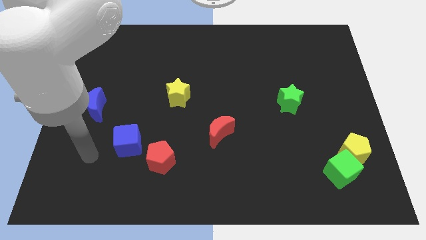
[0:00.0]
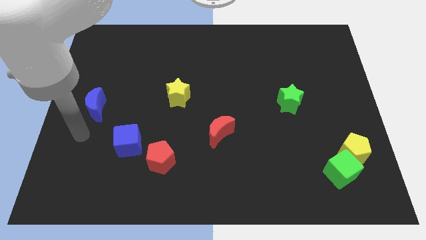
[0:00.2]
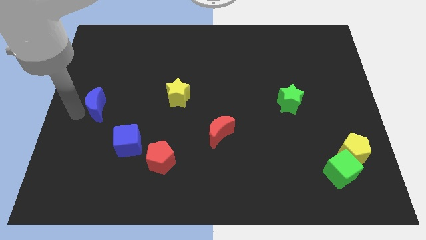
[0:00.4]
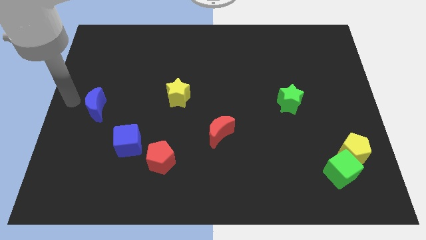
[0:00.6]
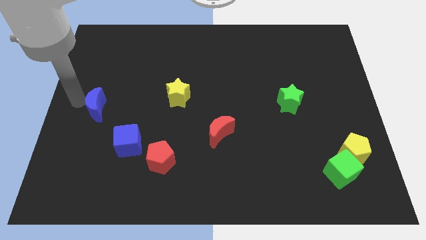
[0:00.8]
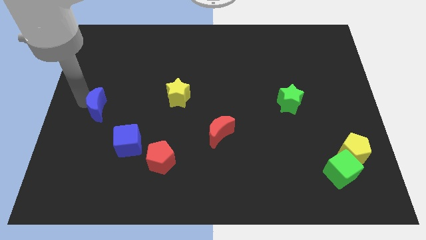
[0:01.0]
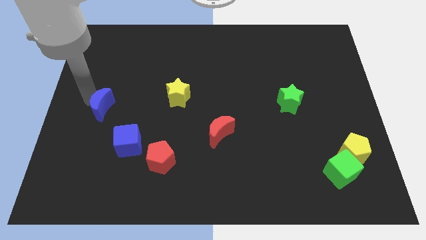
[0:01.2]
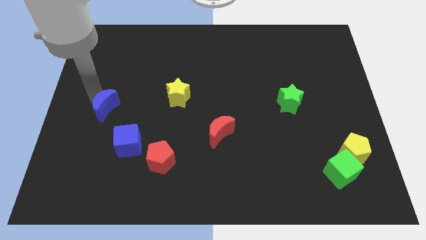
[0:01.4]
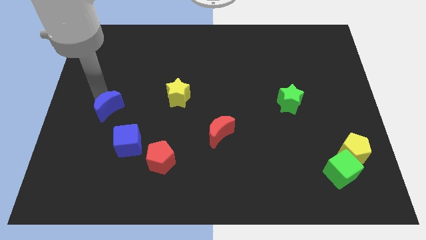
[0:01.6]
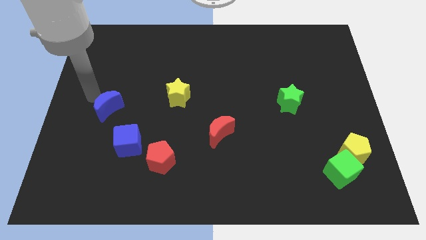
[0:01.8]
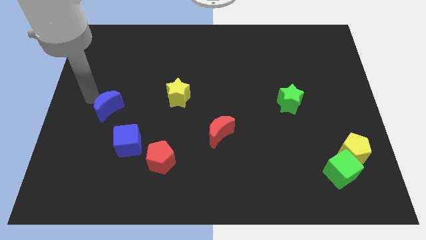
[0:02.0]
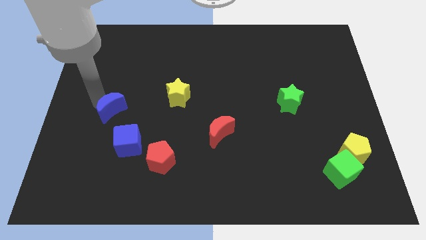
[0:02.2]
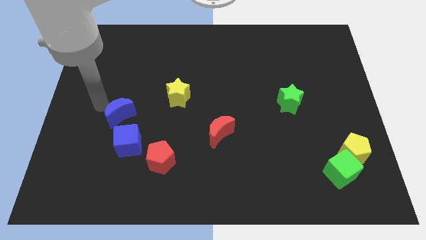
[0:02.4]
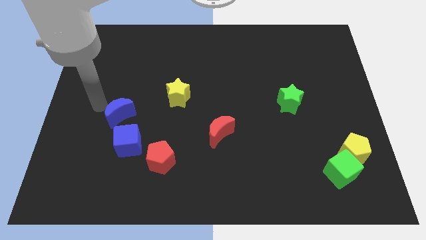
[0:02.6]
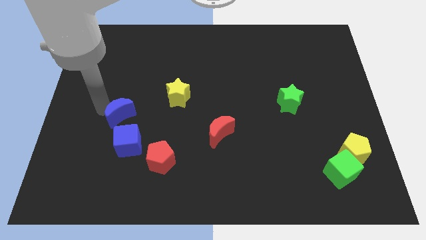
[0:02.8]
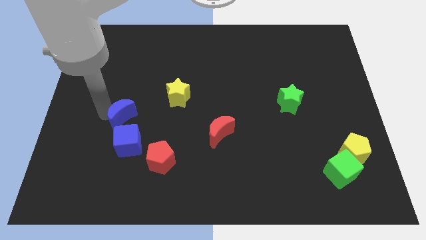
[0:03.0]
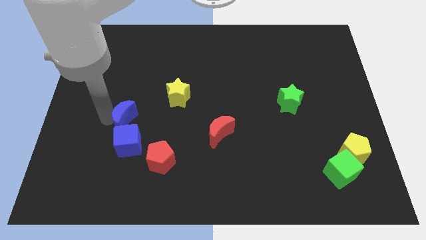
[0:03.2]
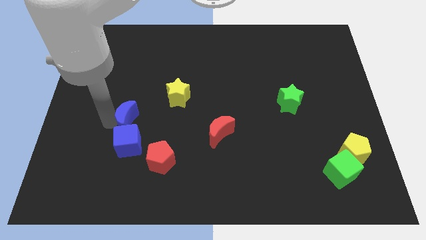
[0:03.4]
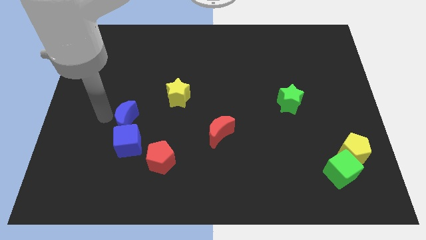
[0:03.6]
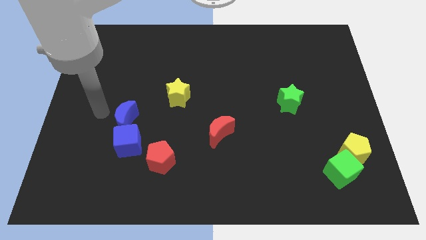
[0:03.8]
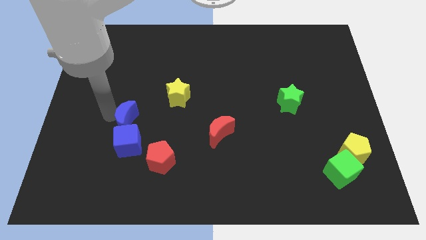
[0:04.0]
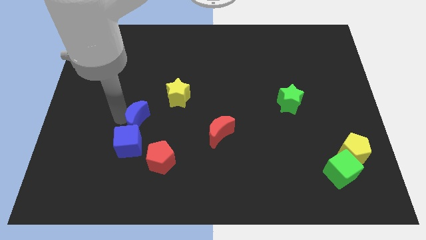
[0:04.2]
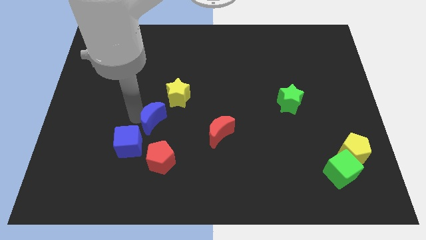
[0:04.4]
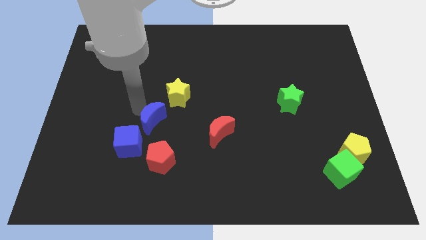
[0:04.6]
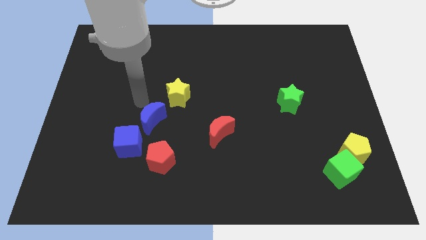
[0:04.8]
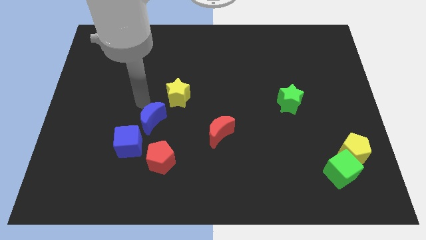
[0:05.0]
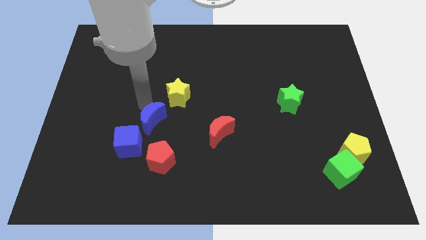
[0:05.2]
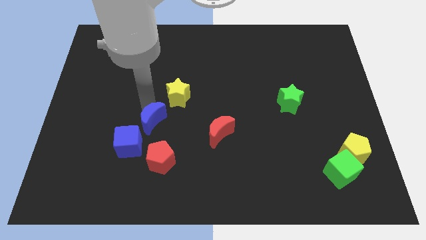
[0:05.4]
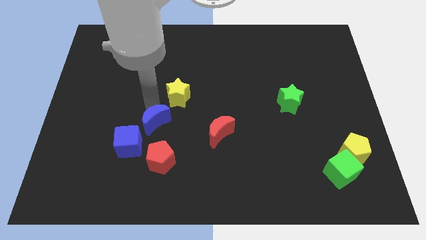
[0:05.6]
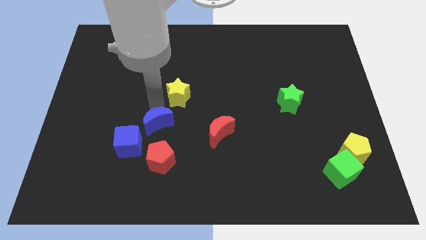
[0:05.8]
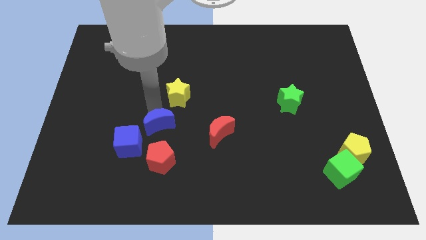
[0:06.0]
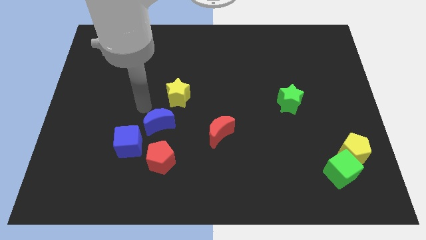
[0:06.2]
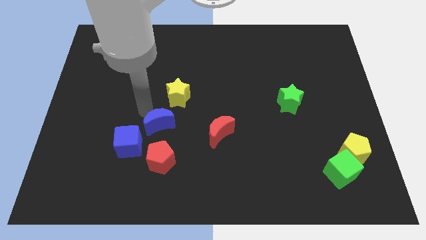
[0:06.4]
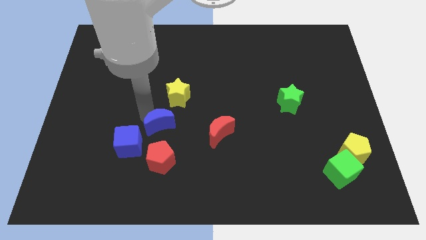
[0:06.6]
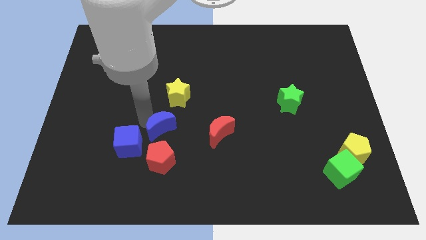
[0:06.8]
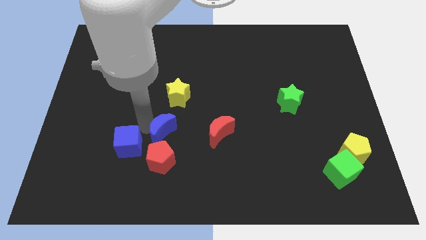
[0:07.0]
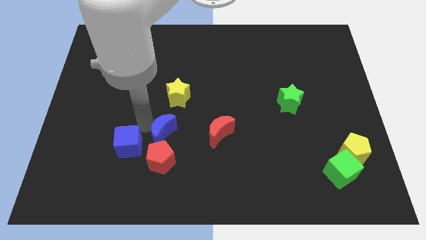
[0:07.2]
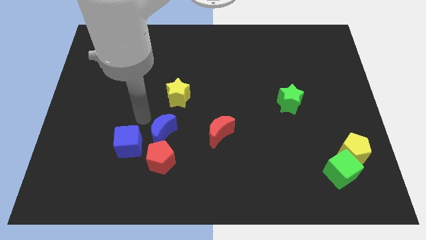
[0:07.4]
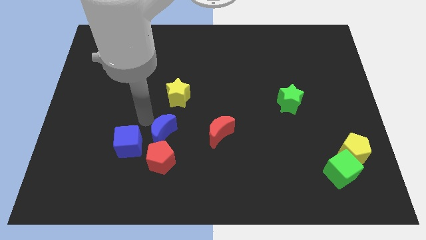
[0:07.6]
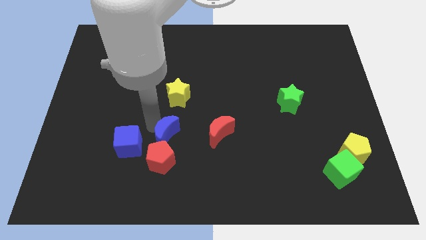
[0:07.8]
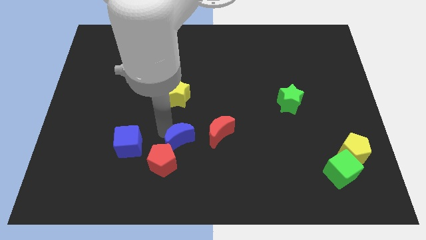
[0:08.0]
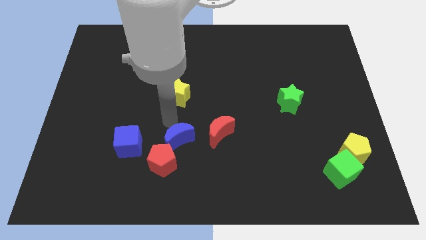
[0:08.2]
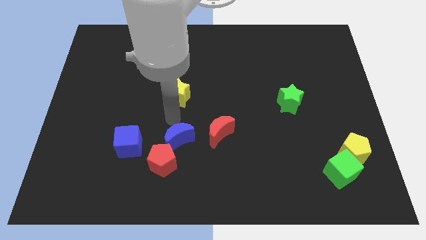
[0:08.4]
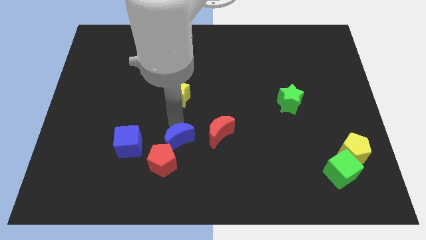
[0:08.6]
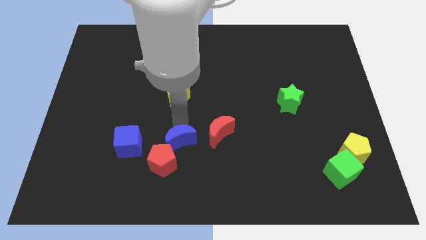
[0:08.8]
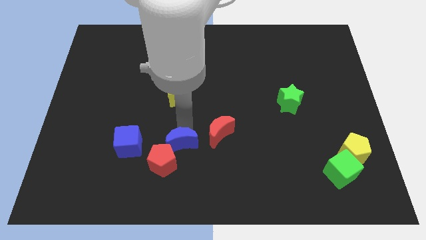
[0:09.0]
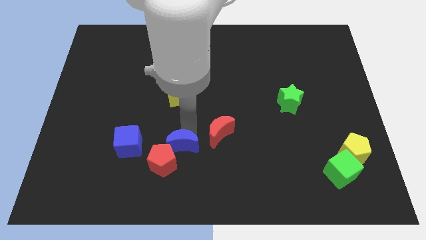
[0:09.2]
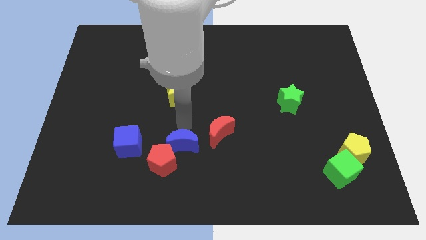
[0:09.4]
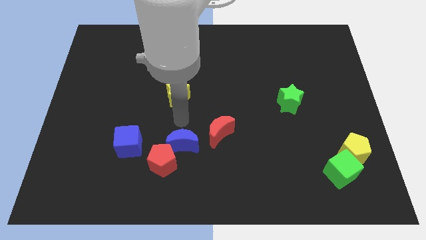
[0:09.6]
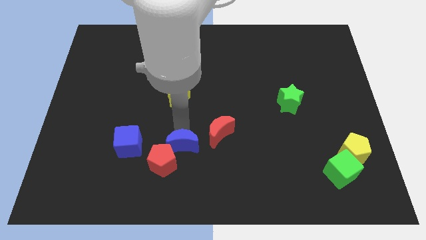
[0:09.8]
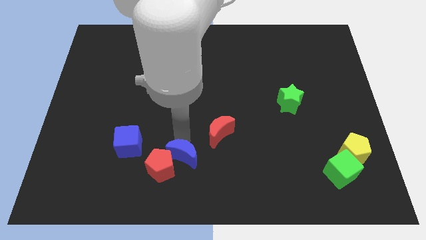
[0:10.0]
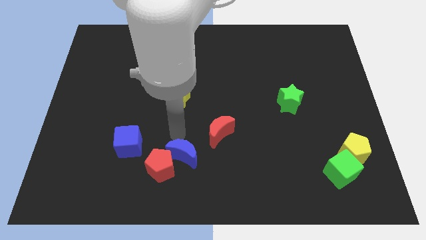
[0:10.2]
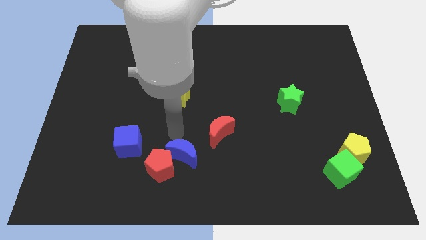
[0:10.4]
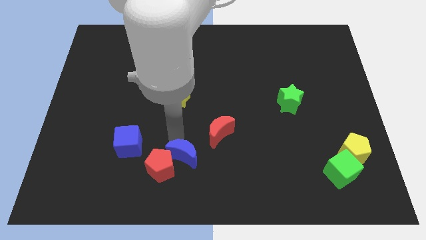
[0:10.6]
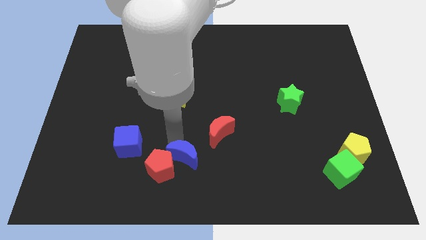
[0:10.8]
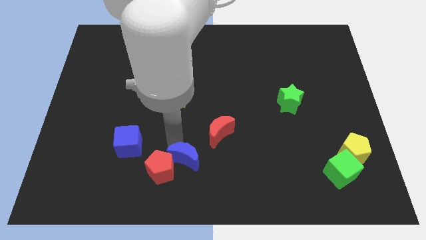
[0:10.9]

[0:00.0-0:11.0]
move the blue moon to the bottom

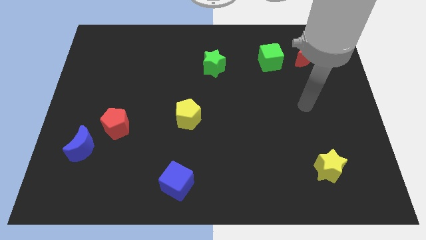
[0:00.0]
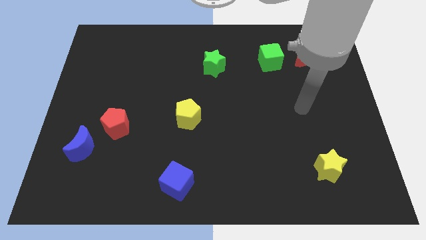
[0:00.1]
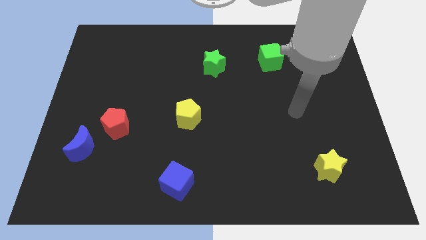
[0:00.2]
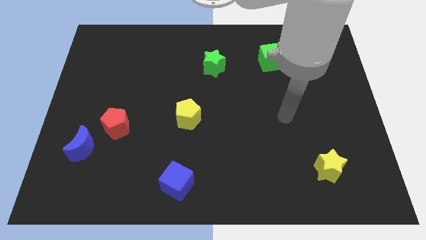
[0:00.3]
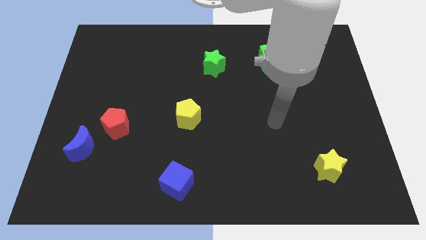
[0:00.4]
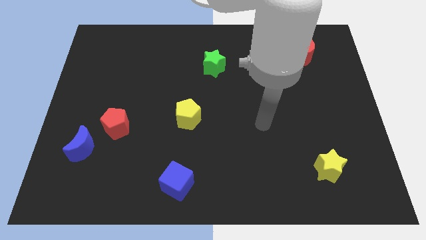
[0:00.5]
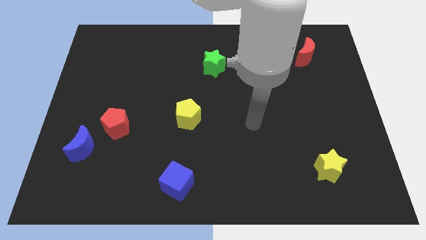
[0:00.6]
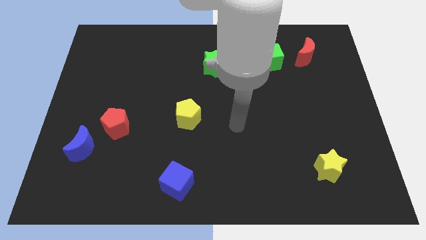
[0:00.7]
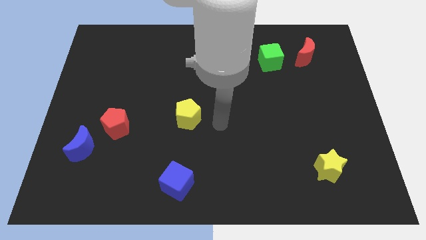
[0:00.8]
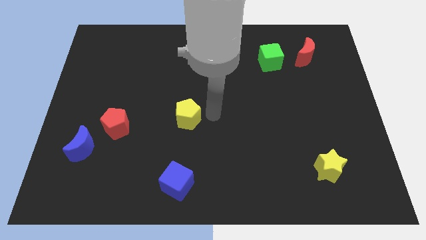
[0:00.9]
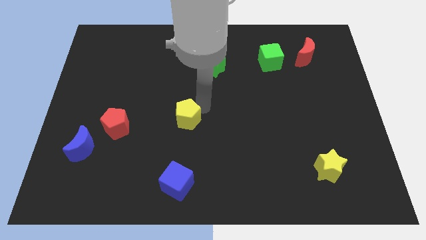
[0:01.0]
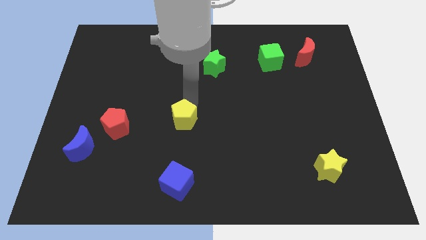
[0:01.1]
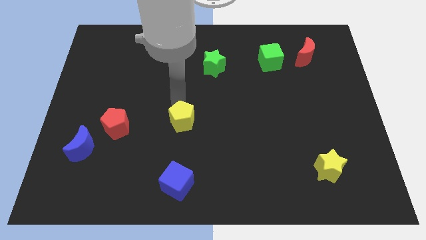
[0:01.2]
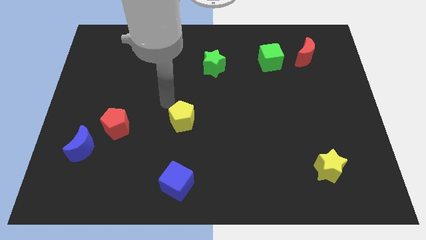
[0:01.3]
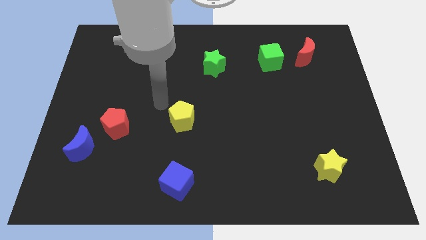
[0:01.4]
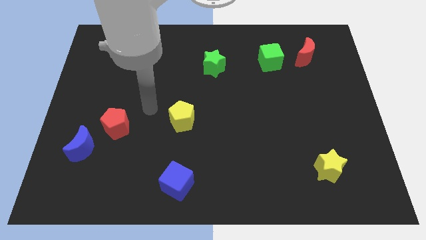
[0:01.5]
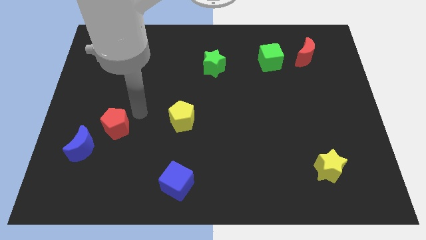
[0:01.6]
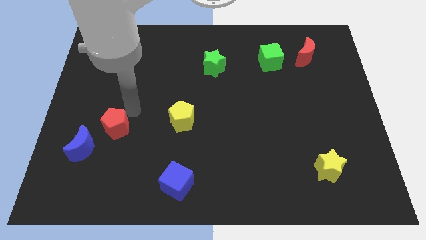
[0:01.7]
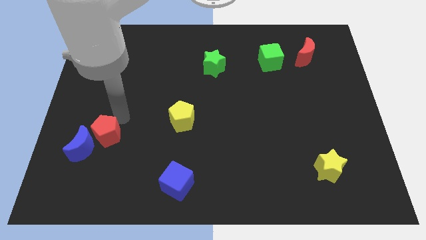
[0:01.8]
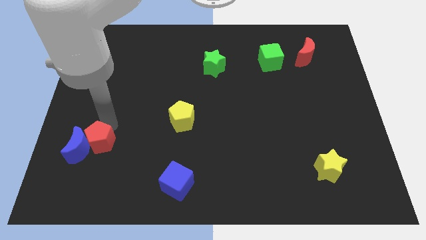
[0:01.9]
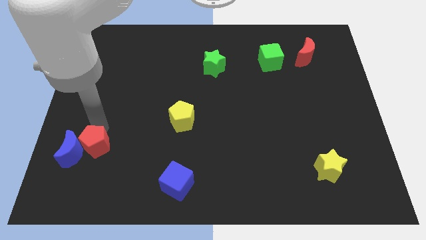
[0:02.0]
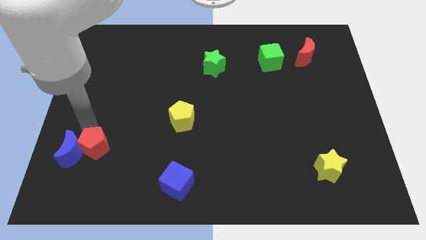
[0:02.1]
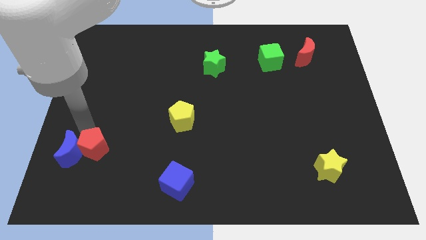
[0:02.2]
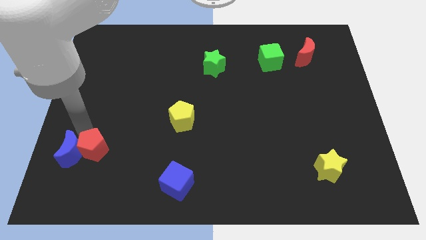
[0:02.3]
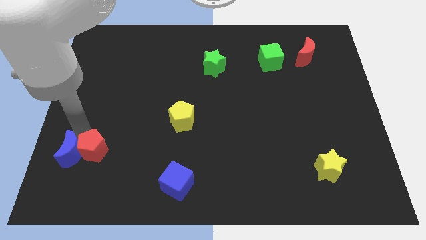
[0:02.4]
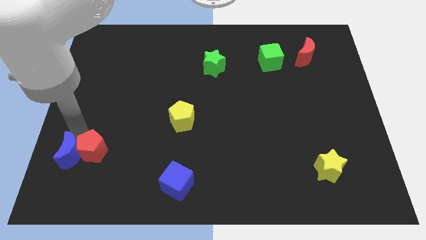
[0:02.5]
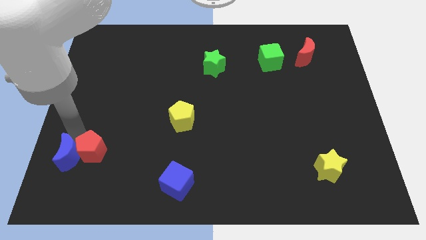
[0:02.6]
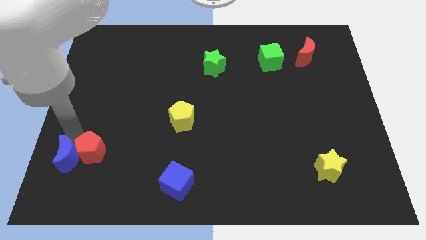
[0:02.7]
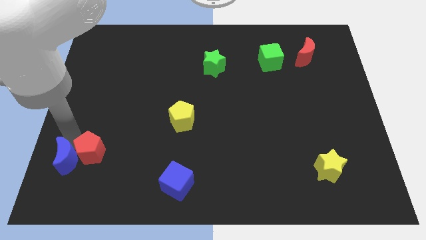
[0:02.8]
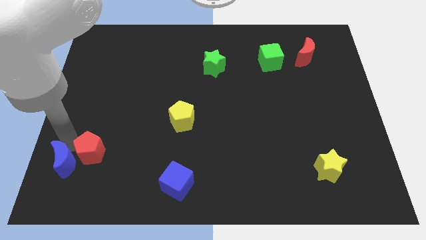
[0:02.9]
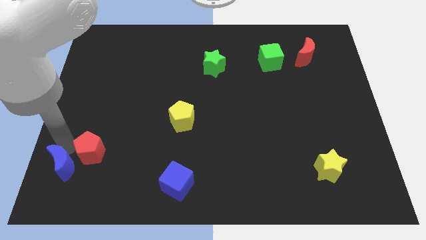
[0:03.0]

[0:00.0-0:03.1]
push the blue moon to the lower left corner
